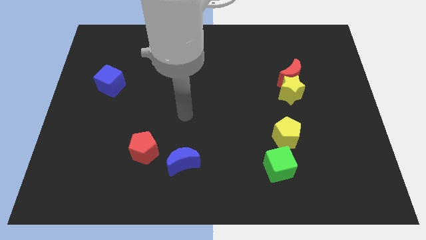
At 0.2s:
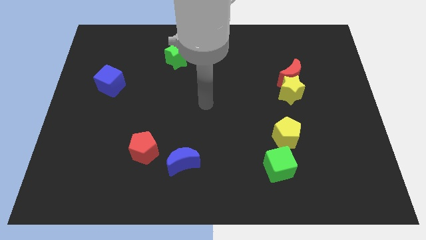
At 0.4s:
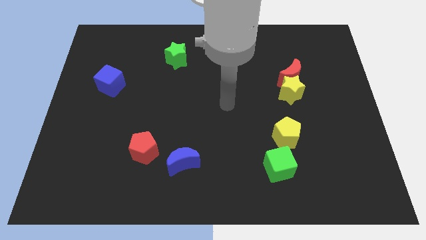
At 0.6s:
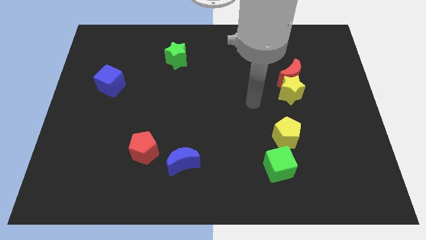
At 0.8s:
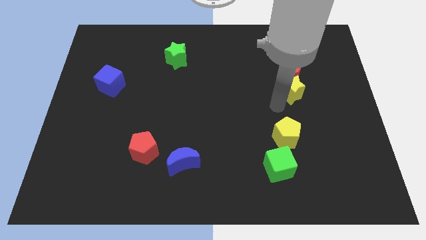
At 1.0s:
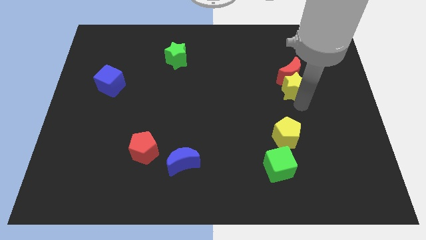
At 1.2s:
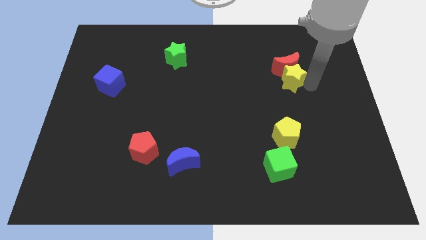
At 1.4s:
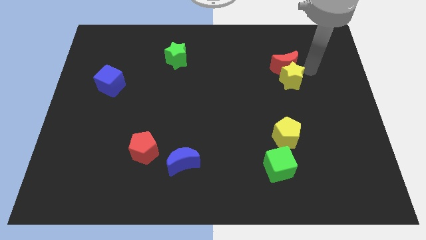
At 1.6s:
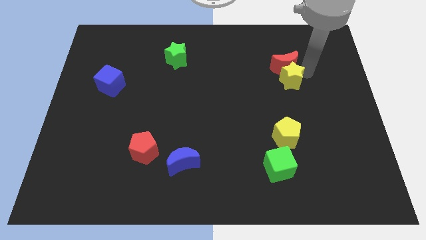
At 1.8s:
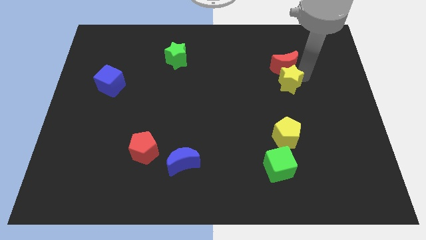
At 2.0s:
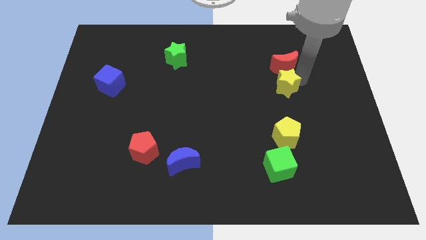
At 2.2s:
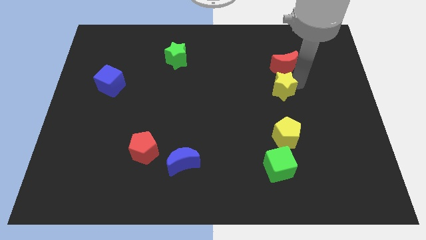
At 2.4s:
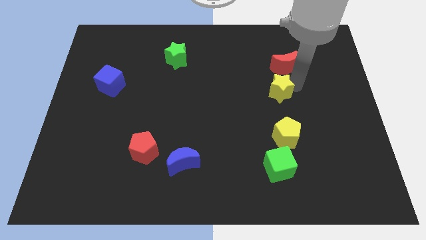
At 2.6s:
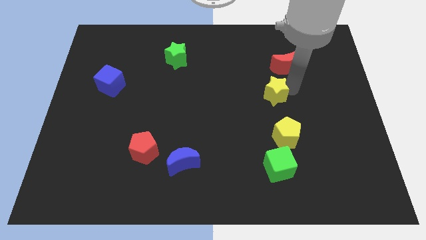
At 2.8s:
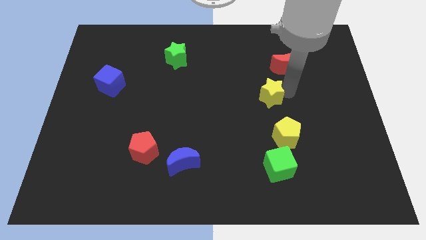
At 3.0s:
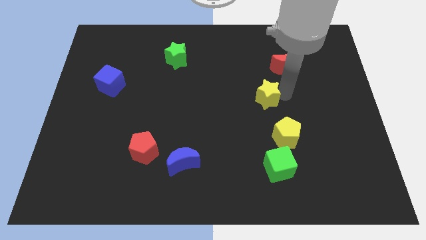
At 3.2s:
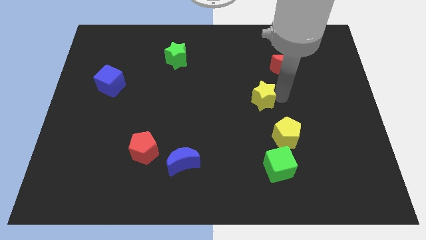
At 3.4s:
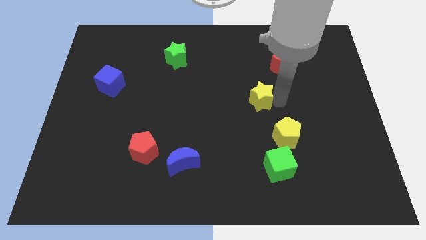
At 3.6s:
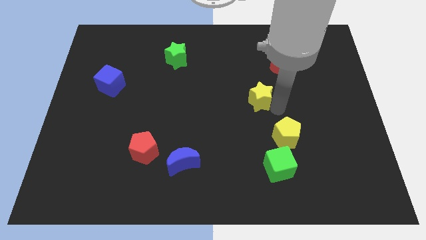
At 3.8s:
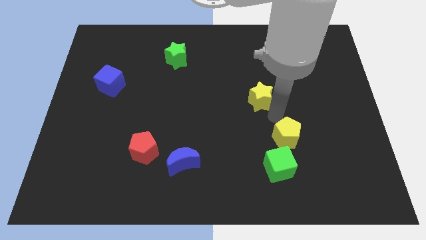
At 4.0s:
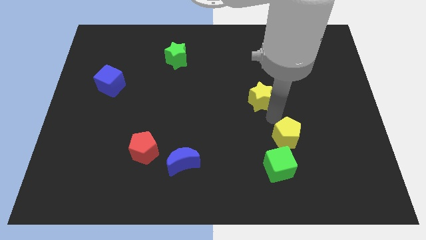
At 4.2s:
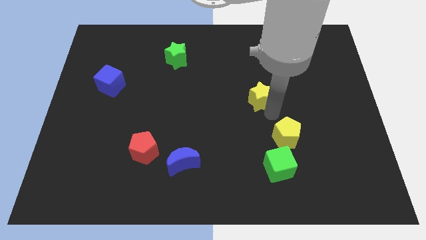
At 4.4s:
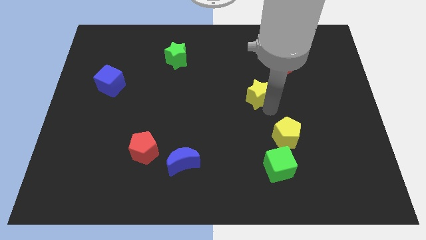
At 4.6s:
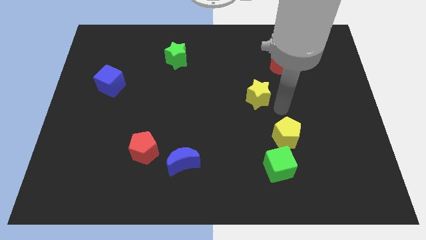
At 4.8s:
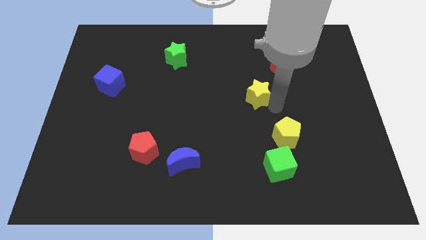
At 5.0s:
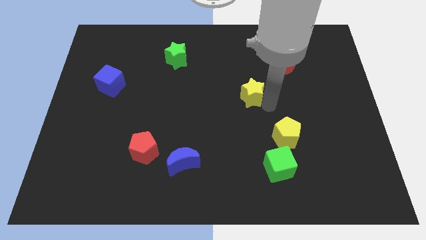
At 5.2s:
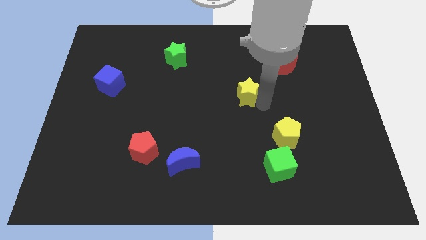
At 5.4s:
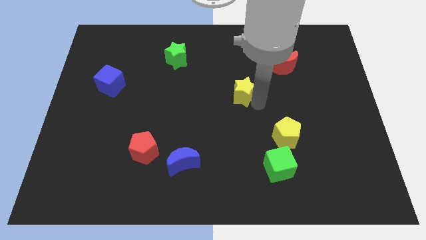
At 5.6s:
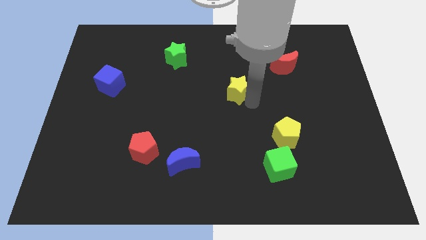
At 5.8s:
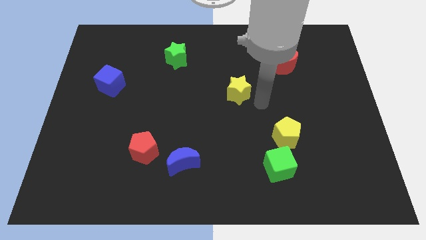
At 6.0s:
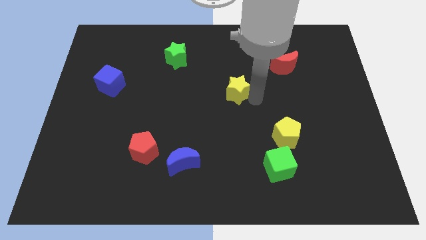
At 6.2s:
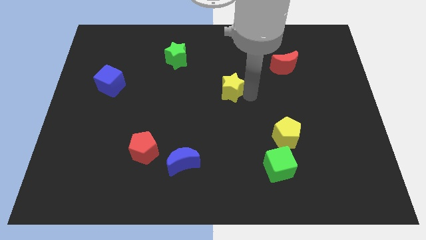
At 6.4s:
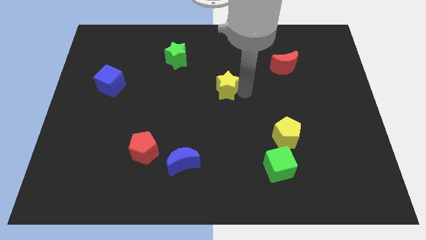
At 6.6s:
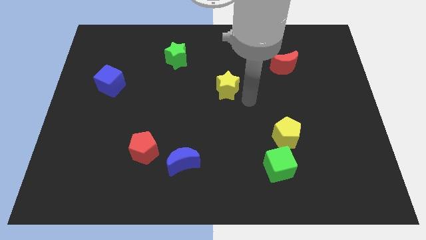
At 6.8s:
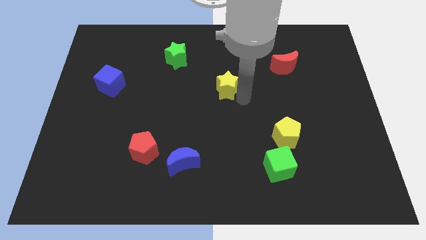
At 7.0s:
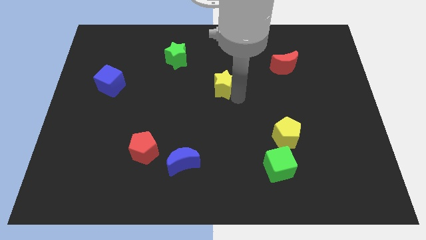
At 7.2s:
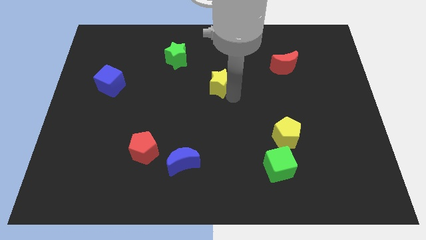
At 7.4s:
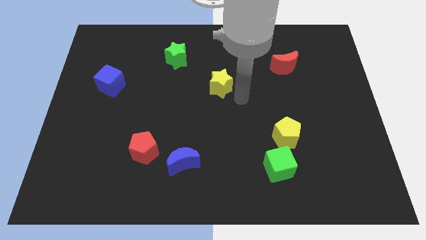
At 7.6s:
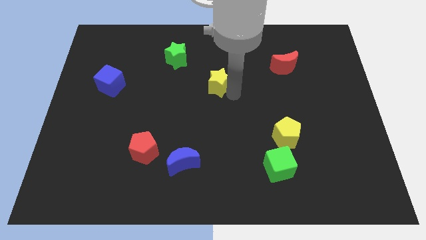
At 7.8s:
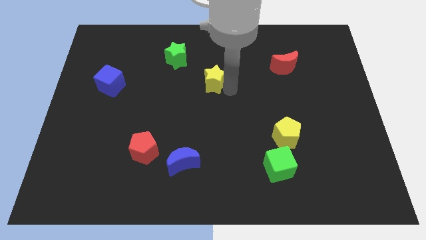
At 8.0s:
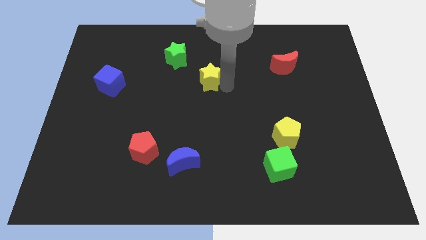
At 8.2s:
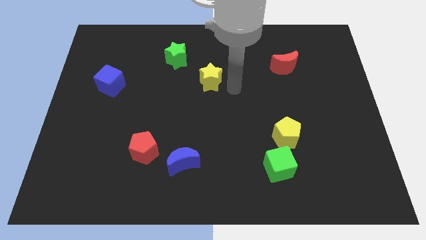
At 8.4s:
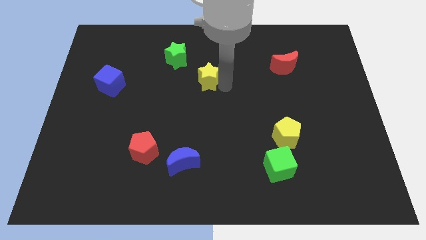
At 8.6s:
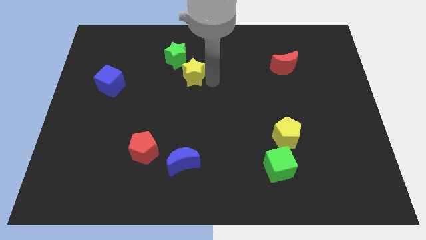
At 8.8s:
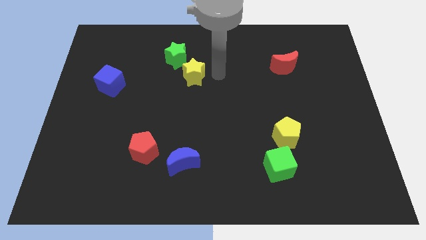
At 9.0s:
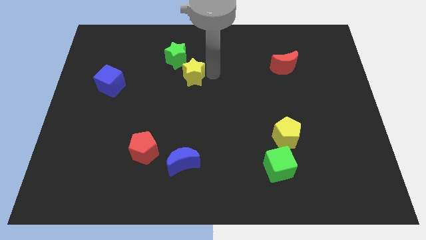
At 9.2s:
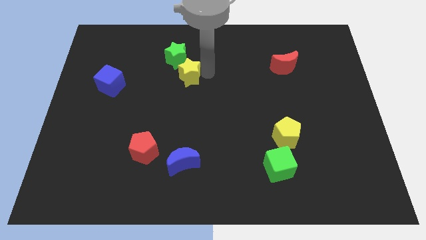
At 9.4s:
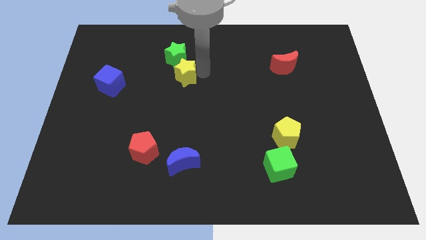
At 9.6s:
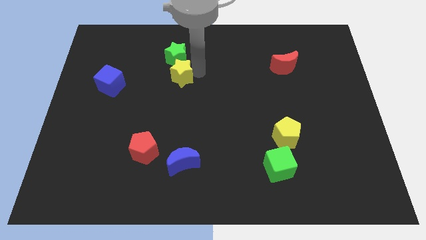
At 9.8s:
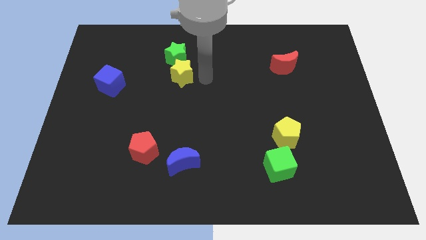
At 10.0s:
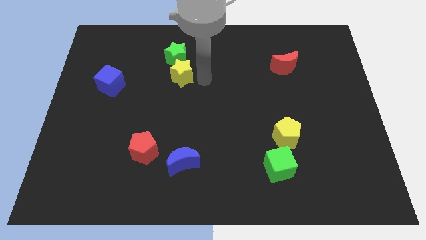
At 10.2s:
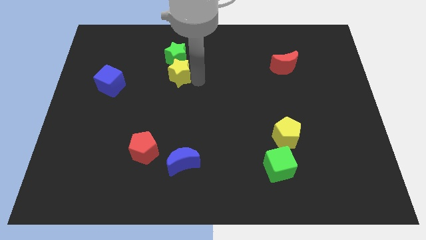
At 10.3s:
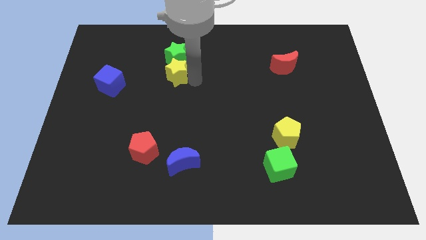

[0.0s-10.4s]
slide the yellow star to the bottom left side of the green star

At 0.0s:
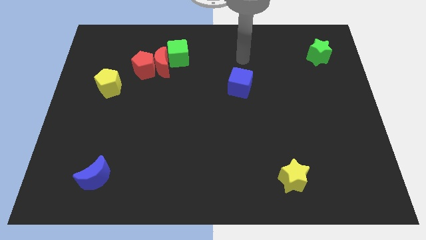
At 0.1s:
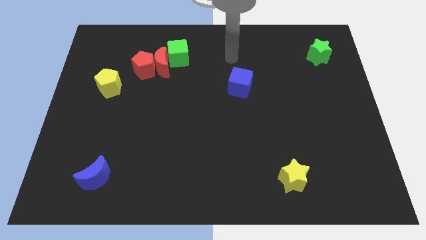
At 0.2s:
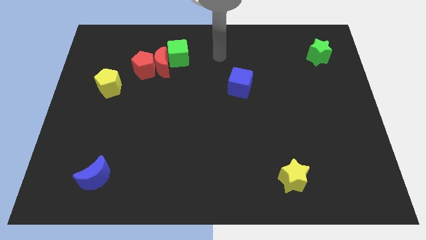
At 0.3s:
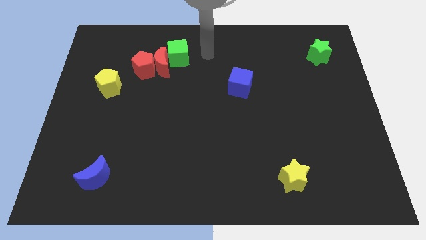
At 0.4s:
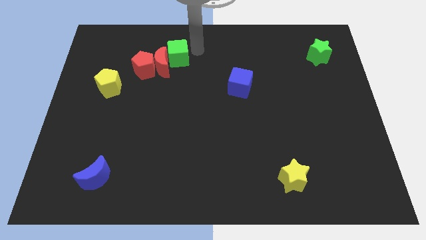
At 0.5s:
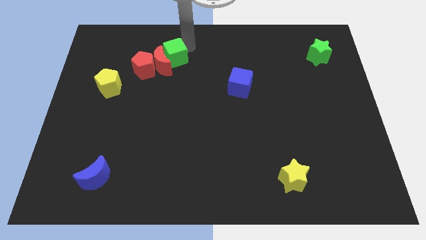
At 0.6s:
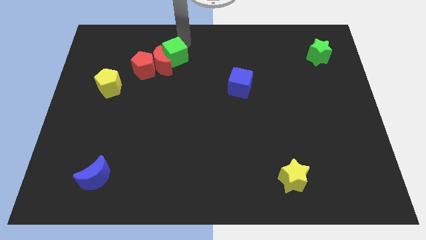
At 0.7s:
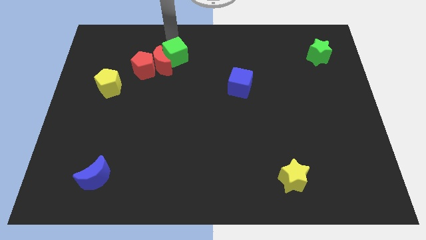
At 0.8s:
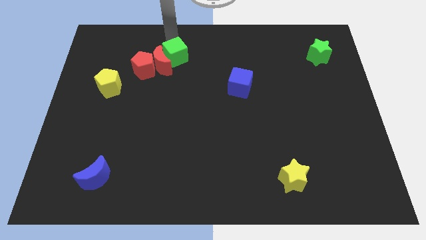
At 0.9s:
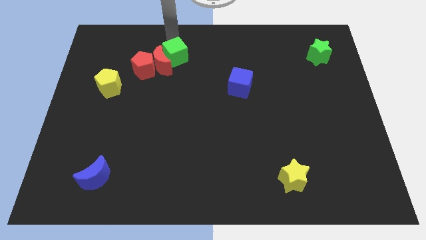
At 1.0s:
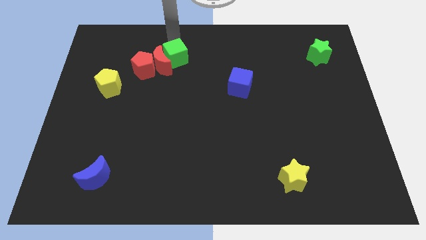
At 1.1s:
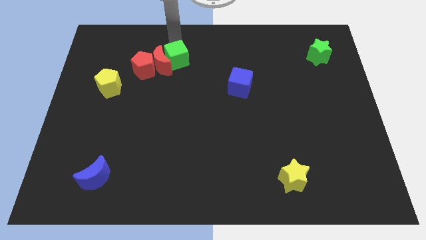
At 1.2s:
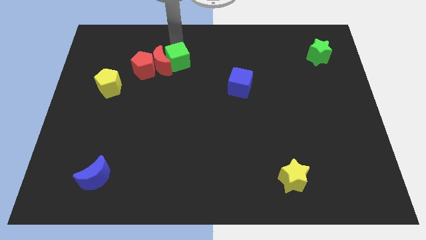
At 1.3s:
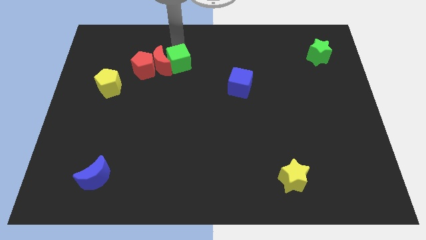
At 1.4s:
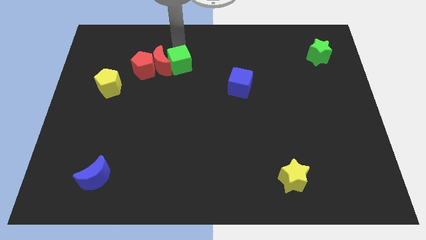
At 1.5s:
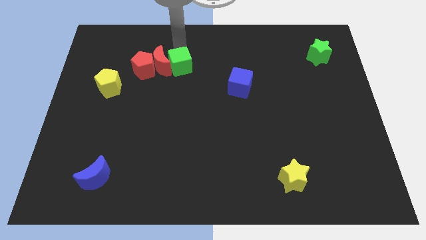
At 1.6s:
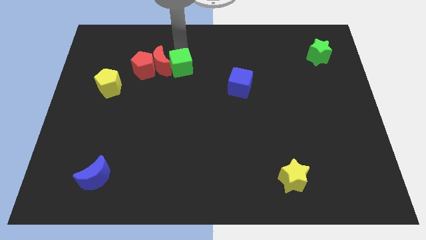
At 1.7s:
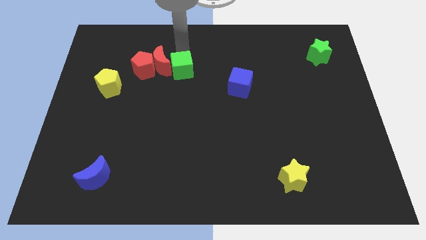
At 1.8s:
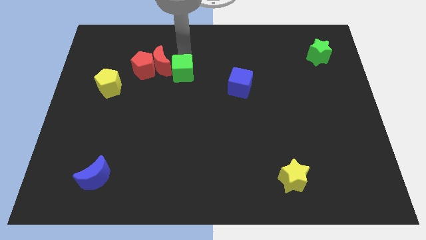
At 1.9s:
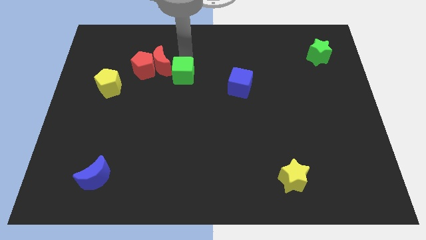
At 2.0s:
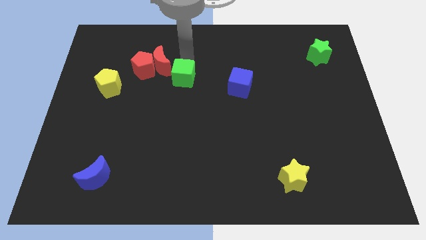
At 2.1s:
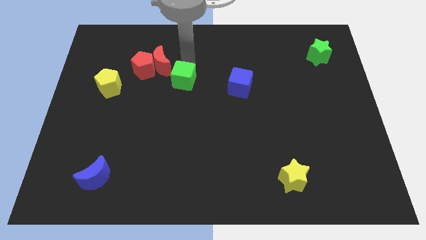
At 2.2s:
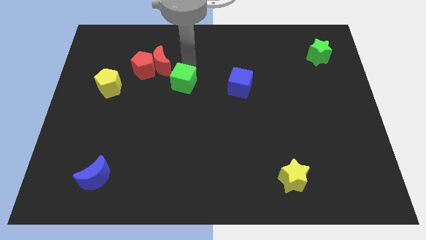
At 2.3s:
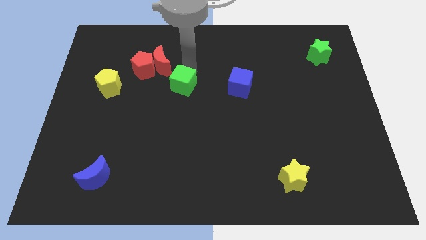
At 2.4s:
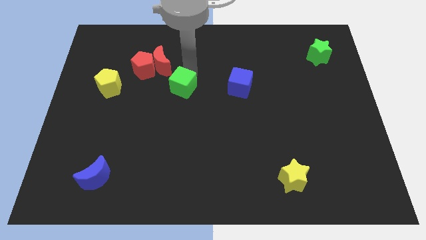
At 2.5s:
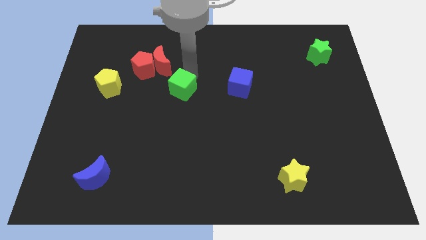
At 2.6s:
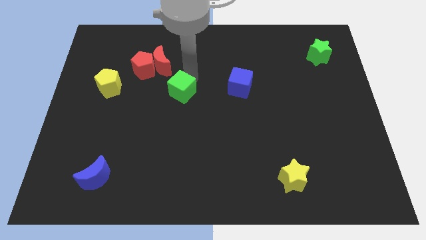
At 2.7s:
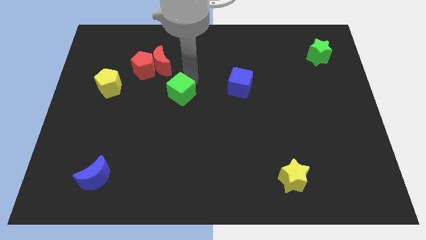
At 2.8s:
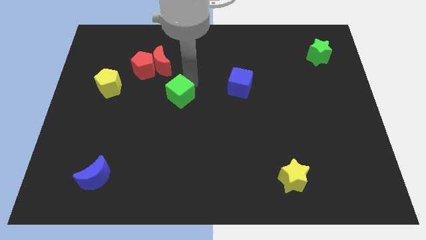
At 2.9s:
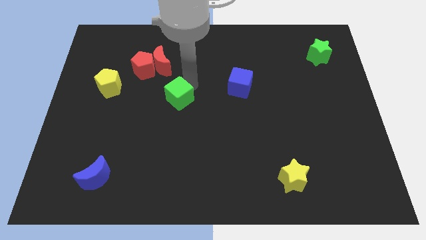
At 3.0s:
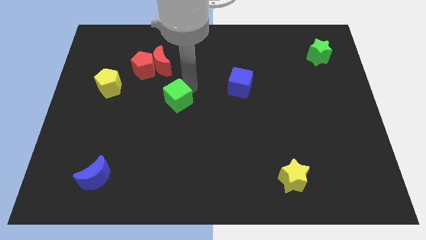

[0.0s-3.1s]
move the green cube to the bottom of the red moon
